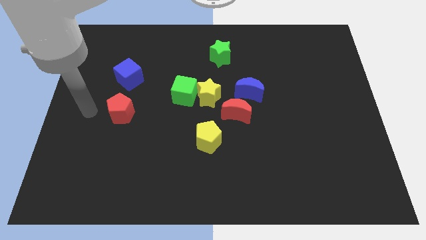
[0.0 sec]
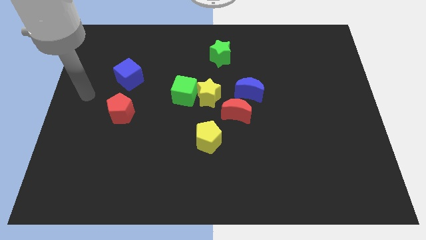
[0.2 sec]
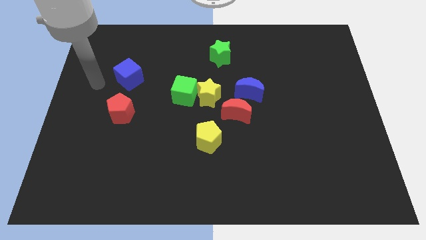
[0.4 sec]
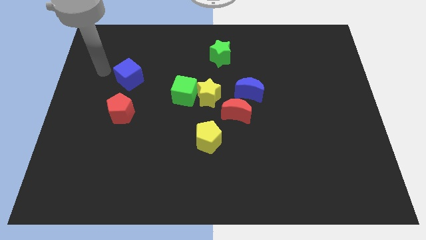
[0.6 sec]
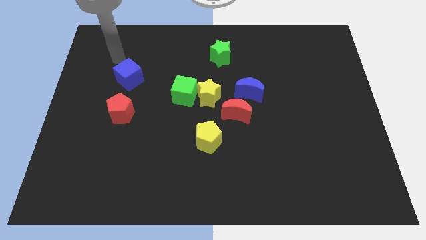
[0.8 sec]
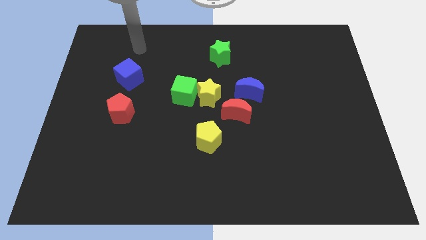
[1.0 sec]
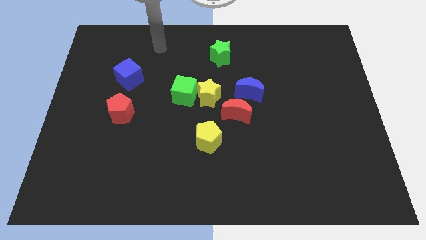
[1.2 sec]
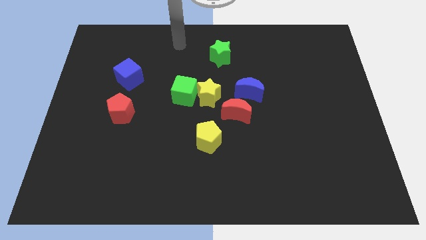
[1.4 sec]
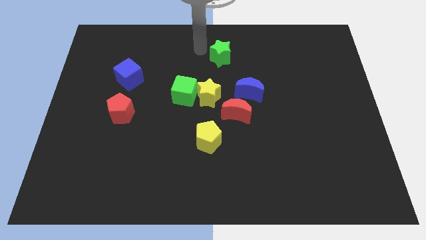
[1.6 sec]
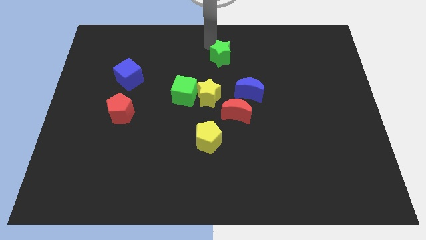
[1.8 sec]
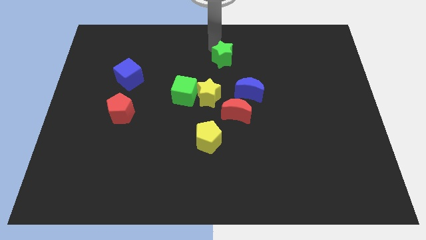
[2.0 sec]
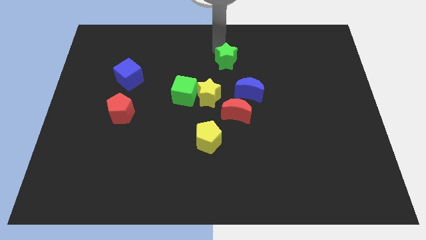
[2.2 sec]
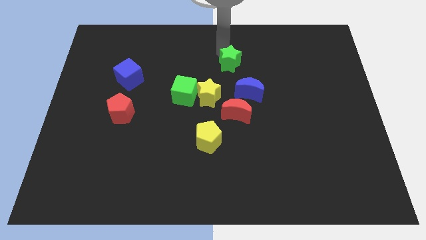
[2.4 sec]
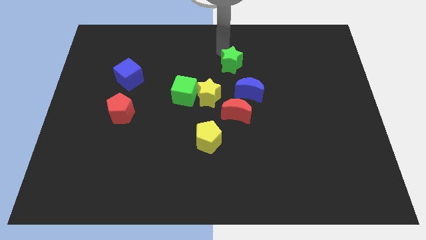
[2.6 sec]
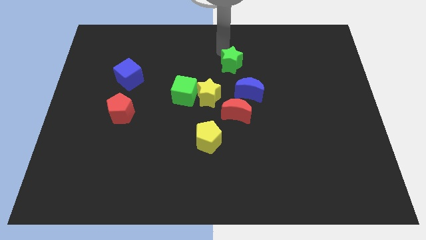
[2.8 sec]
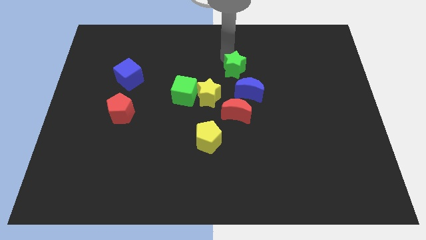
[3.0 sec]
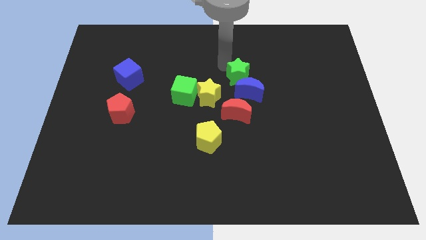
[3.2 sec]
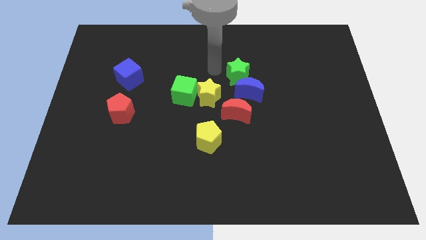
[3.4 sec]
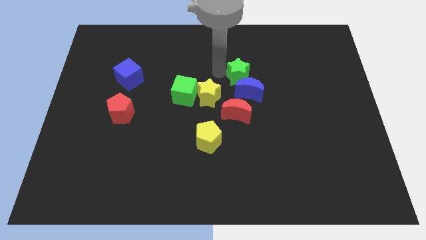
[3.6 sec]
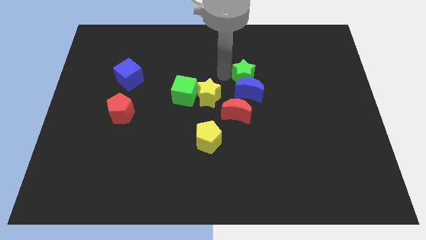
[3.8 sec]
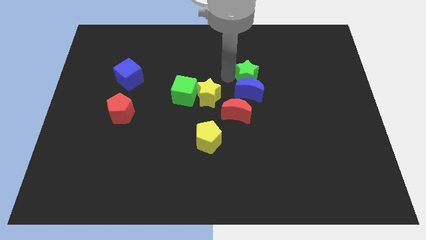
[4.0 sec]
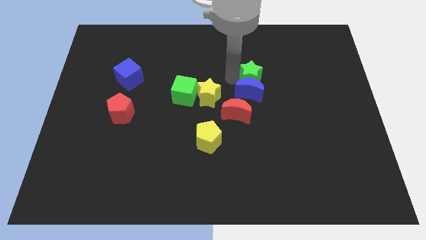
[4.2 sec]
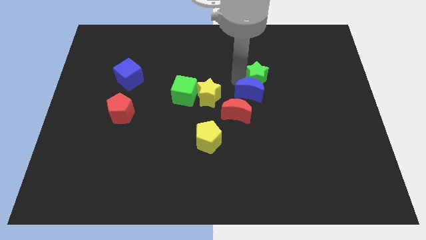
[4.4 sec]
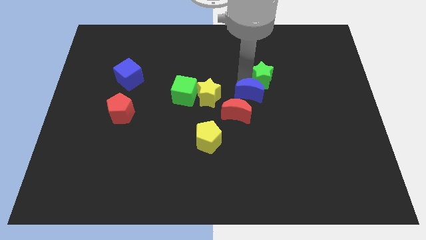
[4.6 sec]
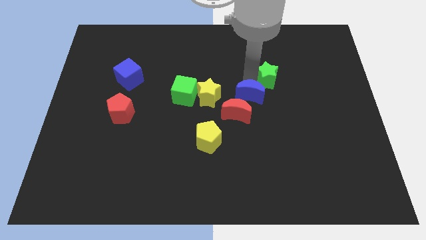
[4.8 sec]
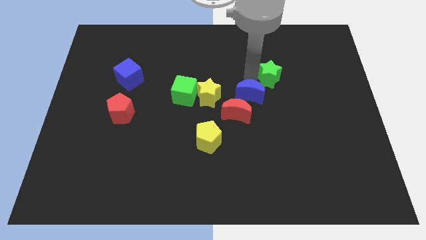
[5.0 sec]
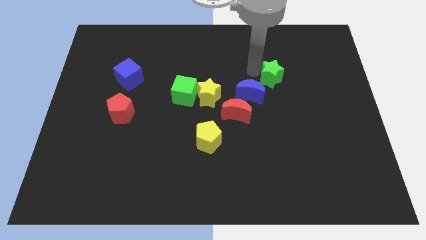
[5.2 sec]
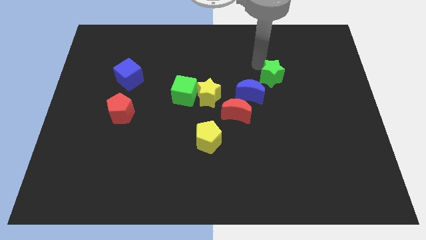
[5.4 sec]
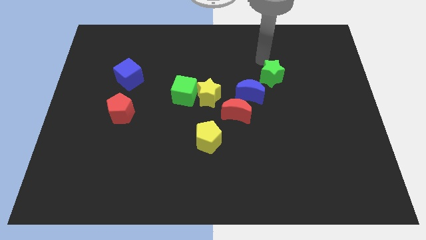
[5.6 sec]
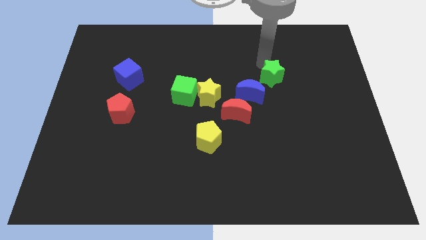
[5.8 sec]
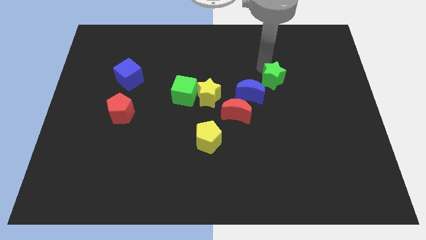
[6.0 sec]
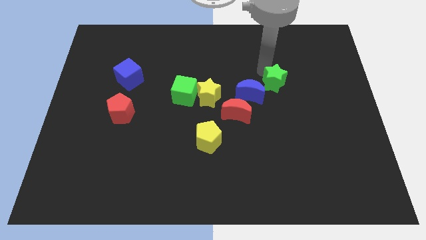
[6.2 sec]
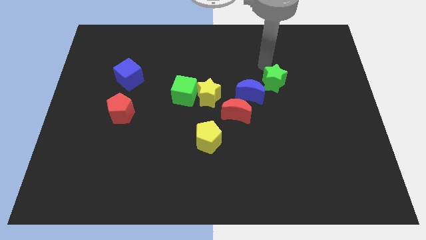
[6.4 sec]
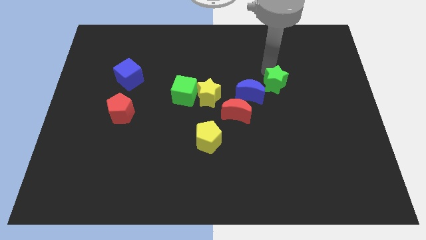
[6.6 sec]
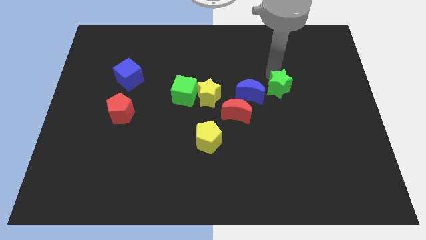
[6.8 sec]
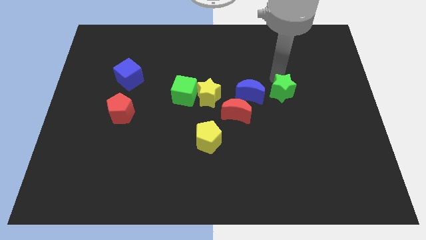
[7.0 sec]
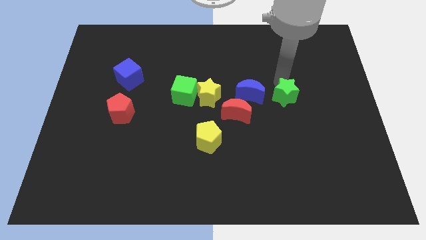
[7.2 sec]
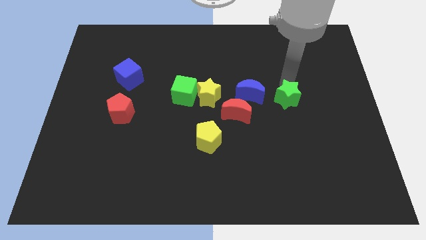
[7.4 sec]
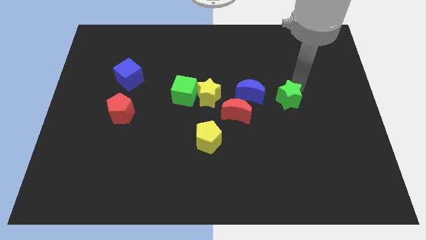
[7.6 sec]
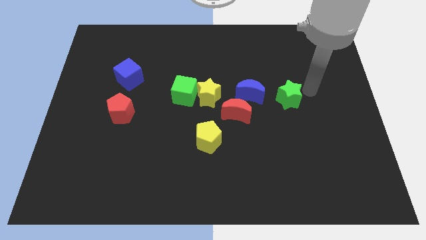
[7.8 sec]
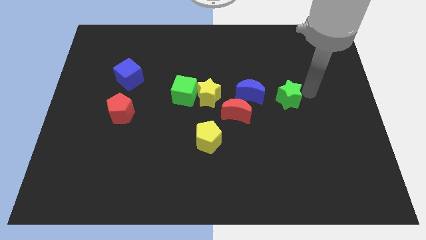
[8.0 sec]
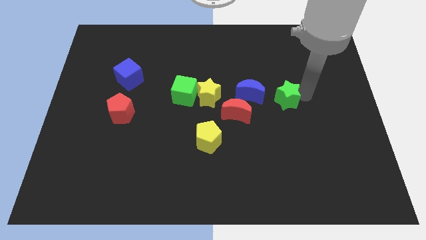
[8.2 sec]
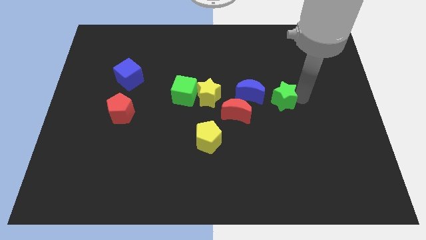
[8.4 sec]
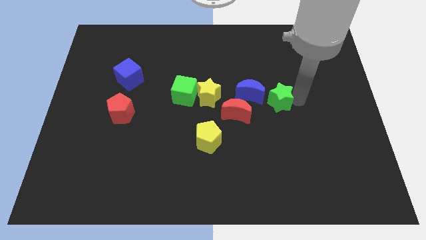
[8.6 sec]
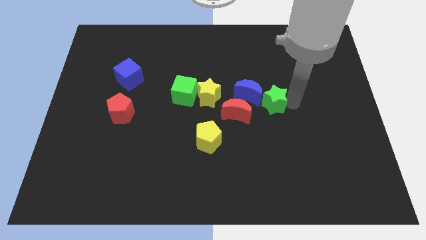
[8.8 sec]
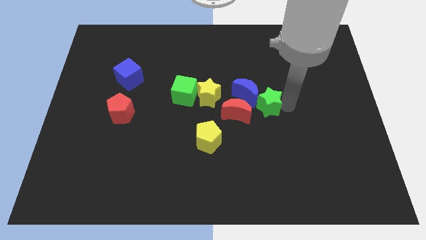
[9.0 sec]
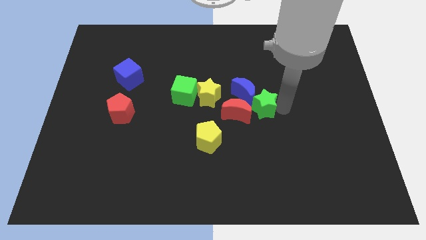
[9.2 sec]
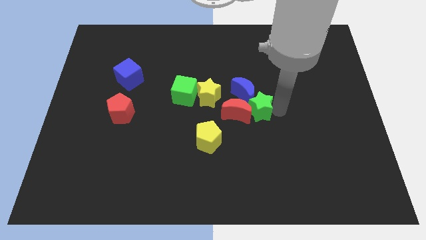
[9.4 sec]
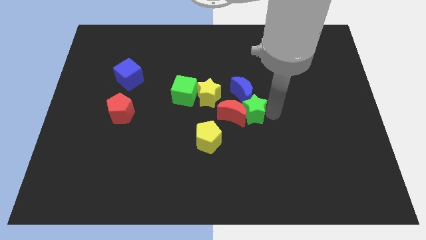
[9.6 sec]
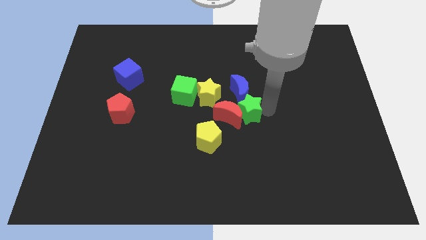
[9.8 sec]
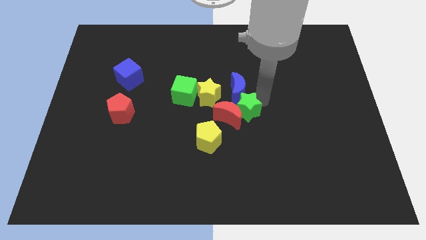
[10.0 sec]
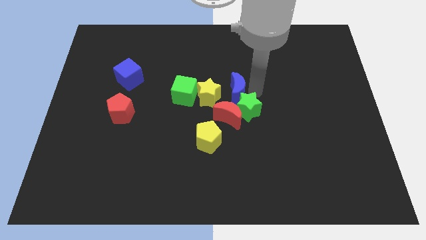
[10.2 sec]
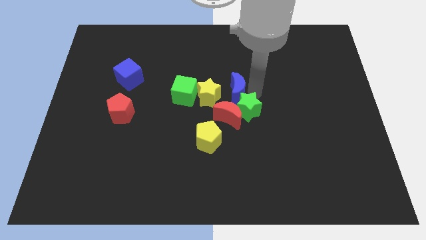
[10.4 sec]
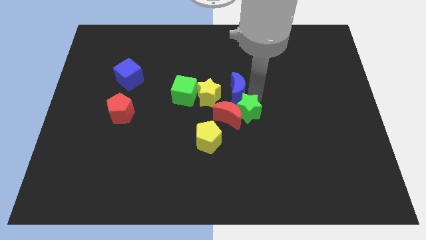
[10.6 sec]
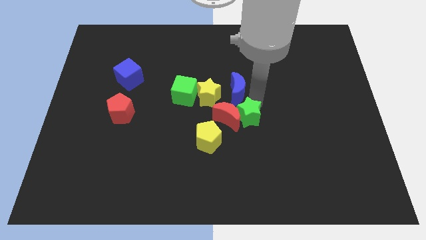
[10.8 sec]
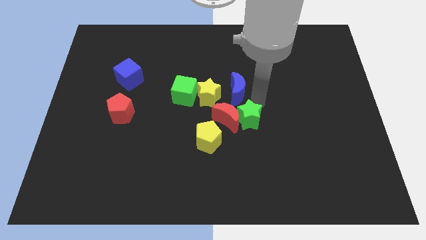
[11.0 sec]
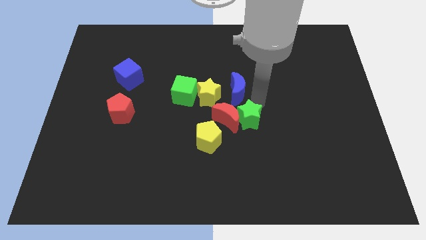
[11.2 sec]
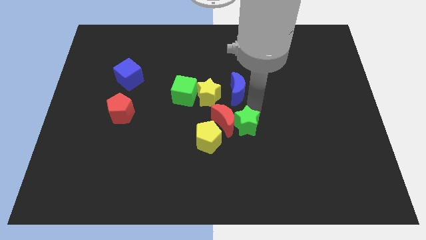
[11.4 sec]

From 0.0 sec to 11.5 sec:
move the green star down

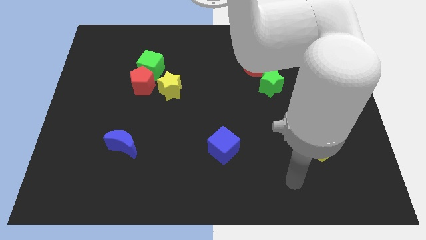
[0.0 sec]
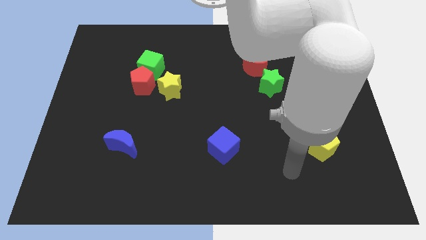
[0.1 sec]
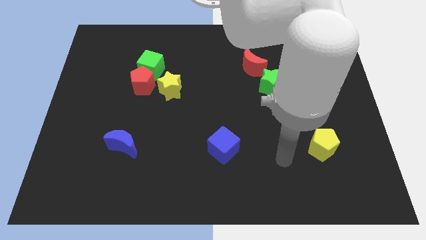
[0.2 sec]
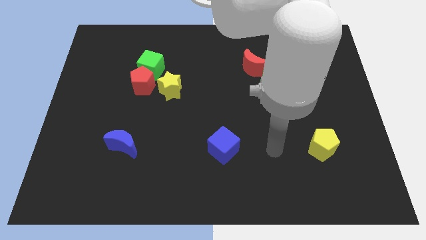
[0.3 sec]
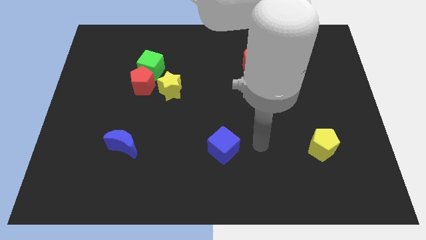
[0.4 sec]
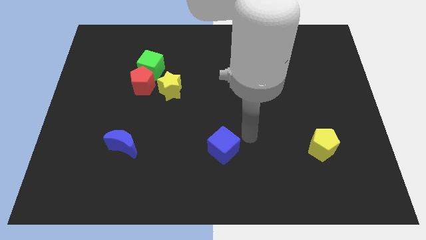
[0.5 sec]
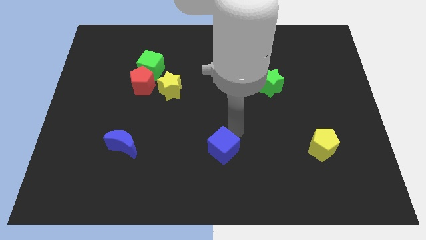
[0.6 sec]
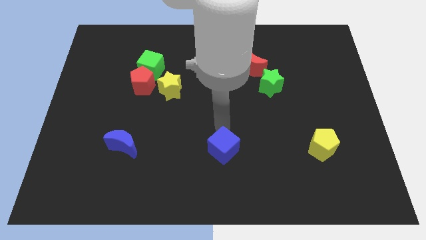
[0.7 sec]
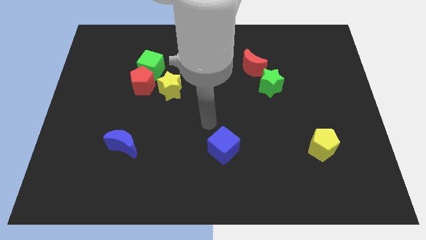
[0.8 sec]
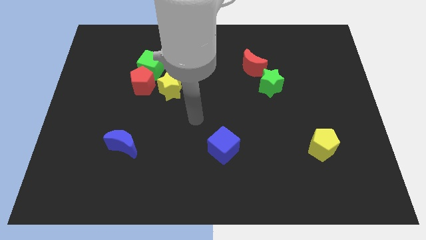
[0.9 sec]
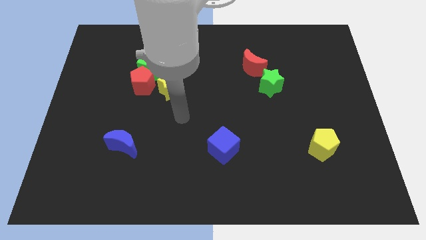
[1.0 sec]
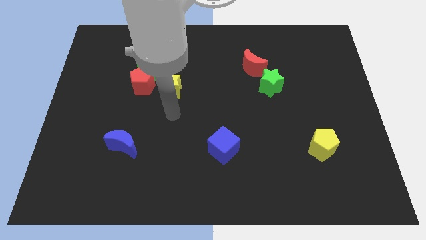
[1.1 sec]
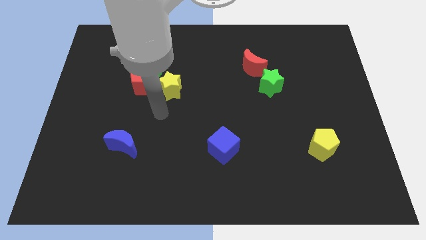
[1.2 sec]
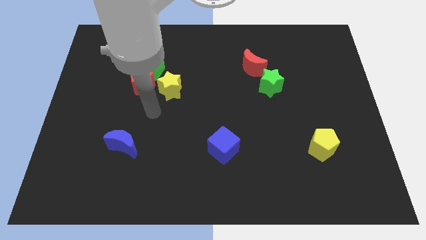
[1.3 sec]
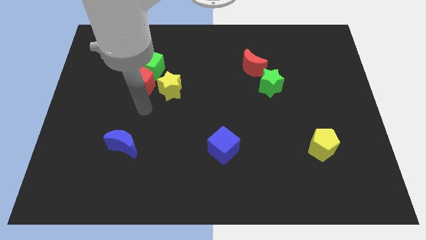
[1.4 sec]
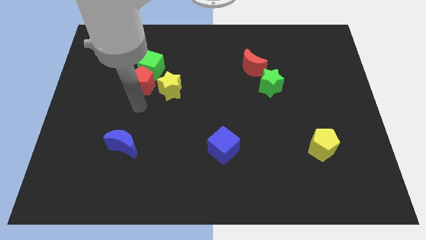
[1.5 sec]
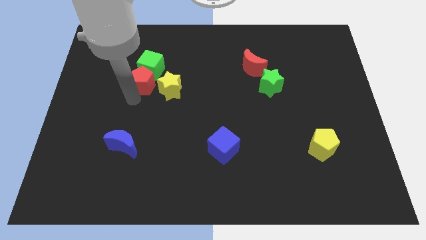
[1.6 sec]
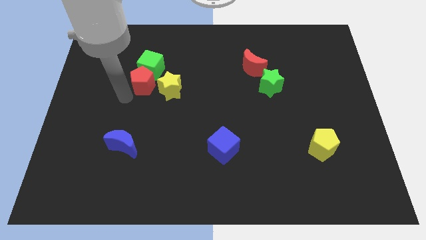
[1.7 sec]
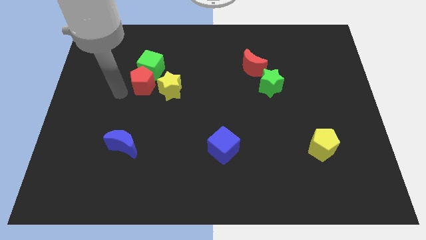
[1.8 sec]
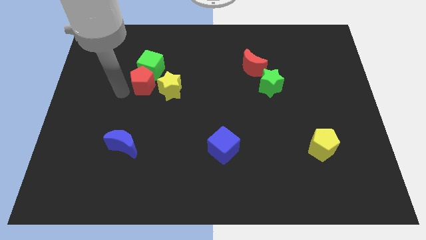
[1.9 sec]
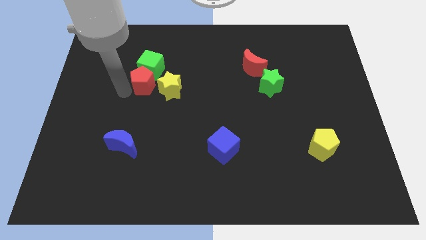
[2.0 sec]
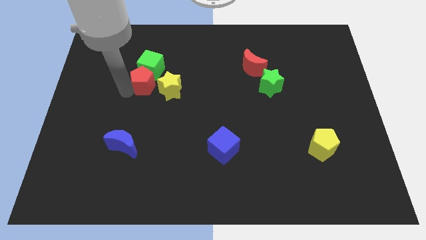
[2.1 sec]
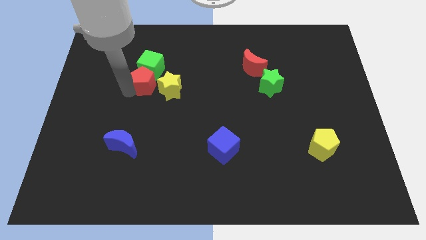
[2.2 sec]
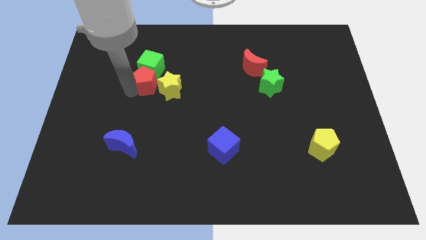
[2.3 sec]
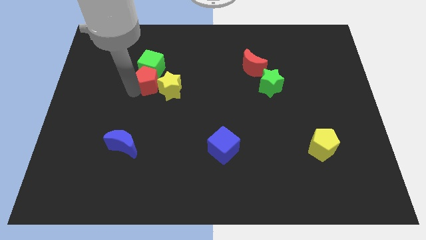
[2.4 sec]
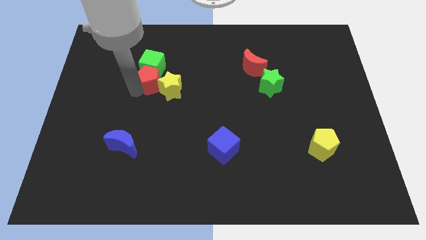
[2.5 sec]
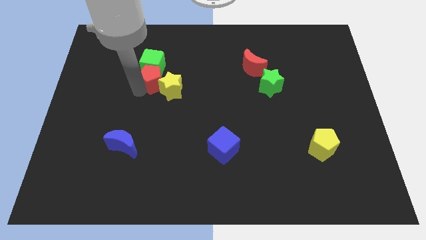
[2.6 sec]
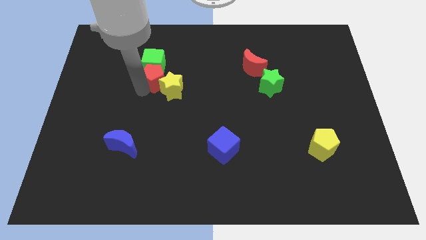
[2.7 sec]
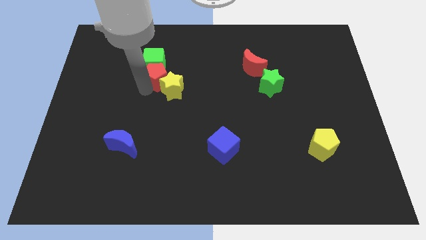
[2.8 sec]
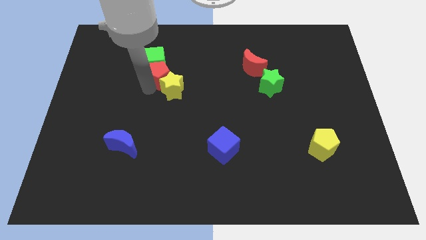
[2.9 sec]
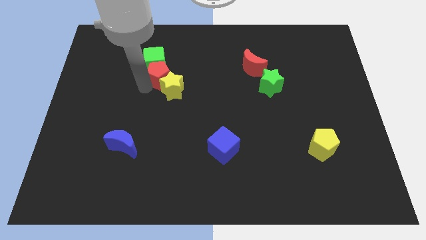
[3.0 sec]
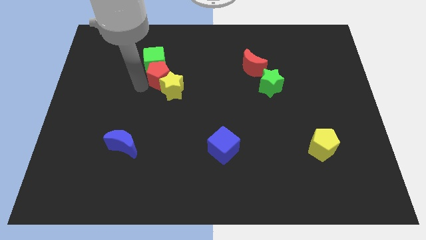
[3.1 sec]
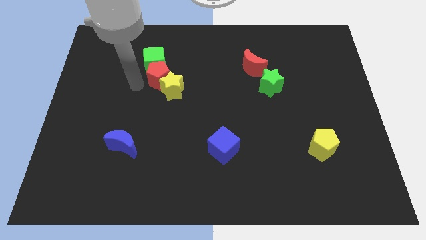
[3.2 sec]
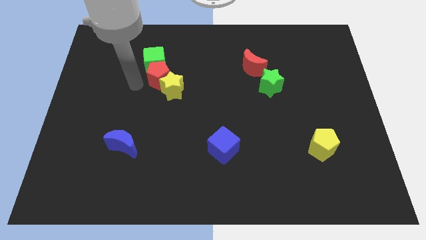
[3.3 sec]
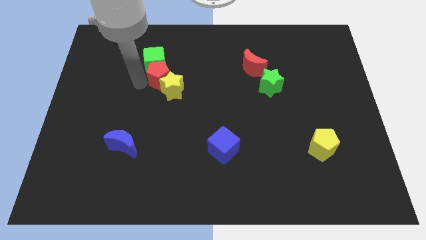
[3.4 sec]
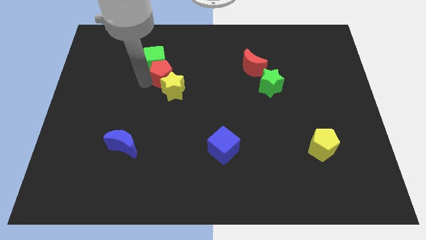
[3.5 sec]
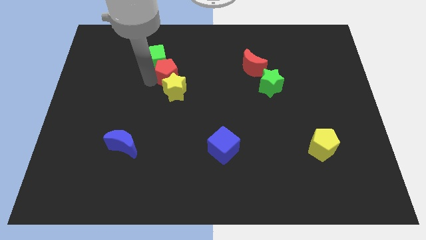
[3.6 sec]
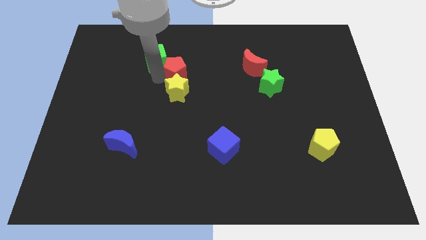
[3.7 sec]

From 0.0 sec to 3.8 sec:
slide the red pentagon somewhat to the right
